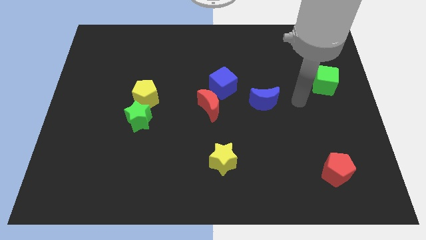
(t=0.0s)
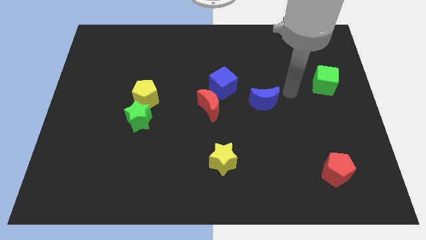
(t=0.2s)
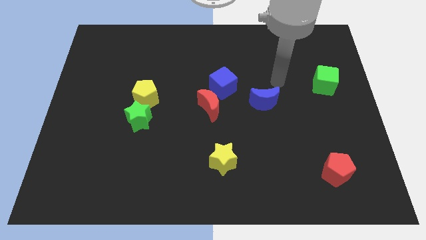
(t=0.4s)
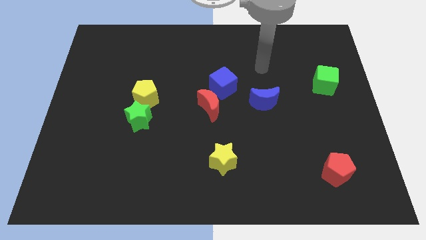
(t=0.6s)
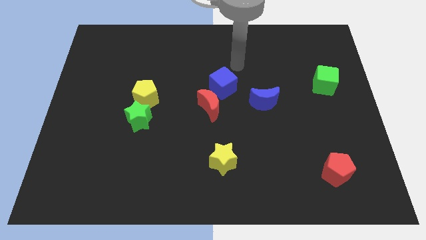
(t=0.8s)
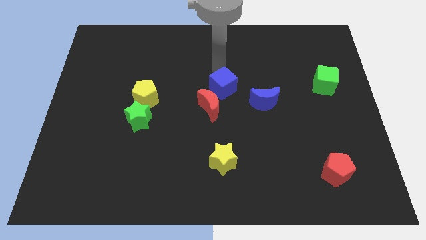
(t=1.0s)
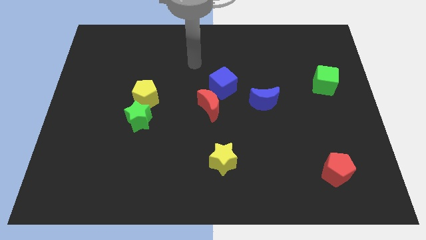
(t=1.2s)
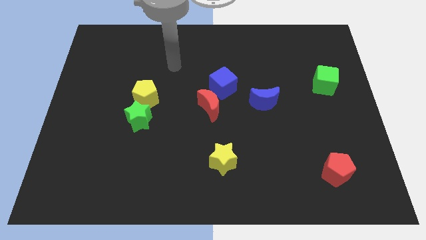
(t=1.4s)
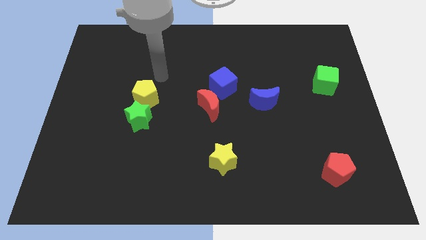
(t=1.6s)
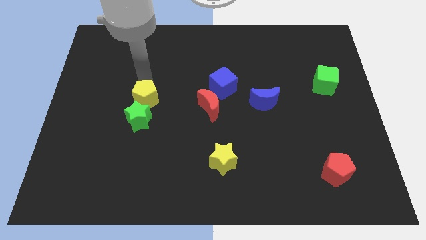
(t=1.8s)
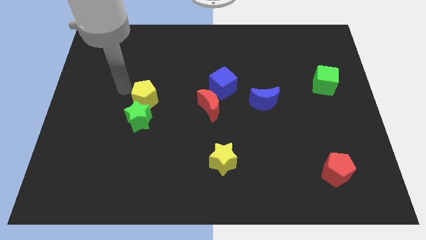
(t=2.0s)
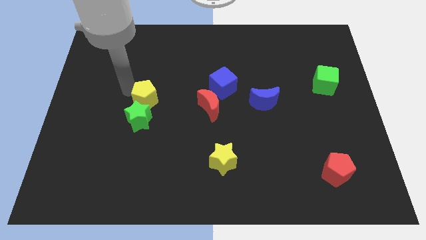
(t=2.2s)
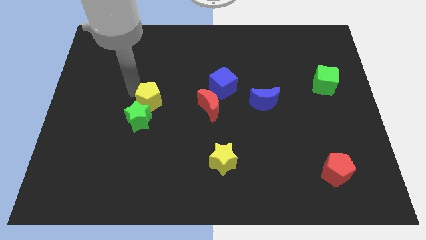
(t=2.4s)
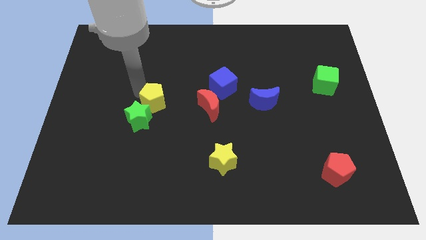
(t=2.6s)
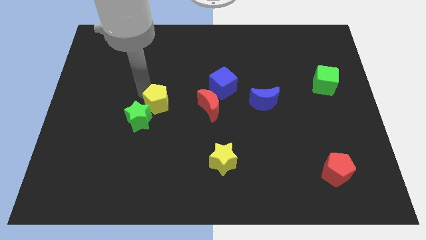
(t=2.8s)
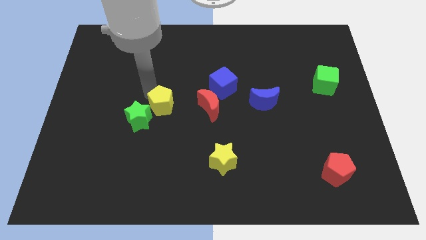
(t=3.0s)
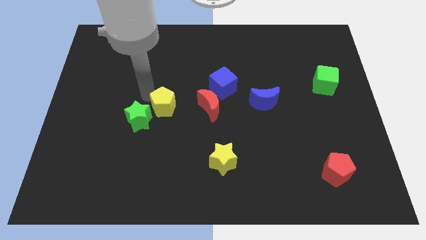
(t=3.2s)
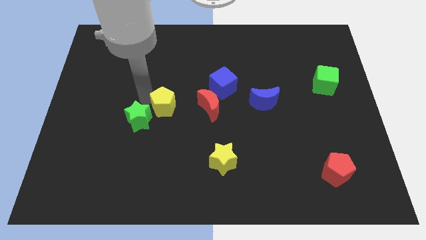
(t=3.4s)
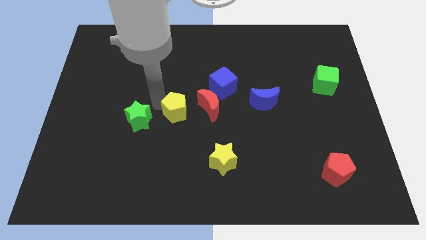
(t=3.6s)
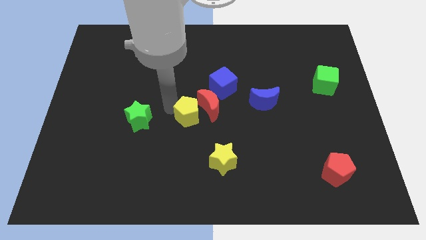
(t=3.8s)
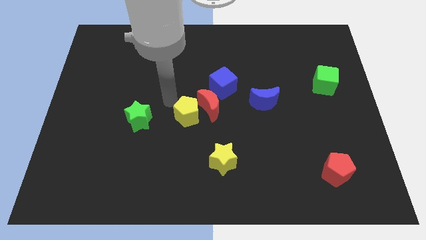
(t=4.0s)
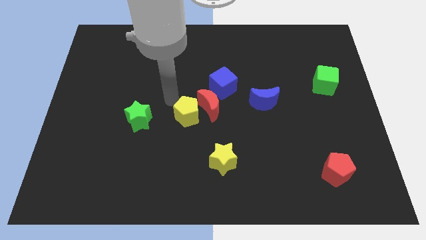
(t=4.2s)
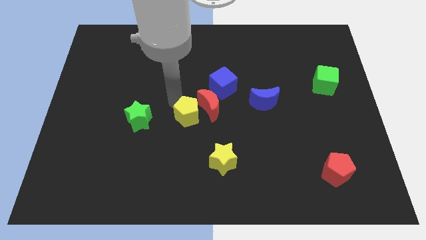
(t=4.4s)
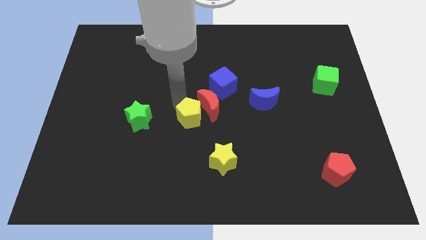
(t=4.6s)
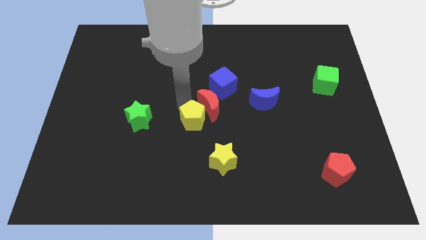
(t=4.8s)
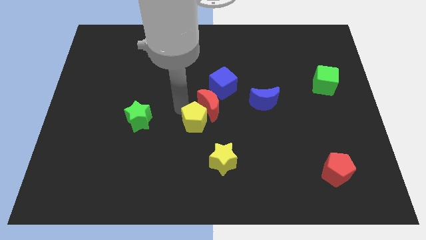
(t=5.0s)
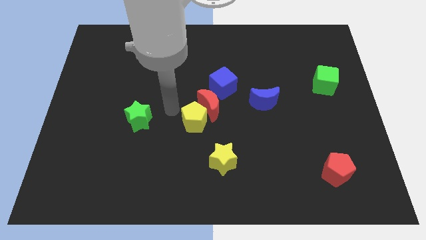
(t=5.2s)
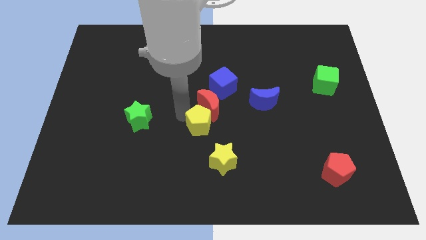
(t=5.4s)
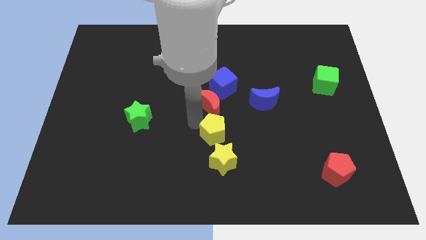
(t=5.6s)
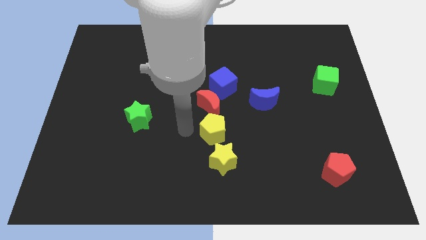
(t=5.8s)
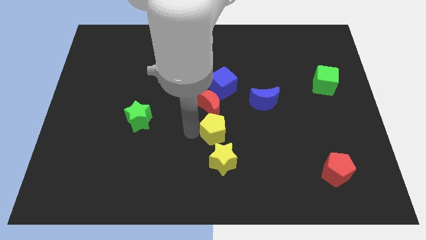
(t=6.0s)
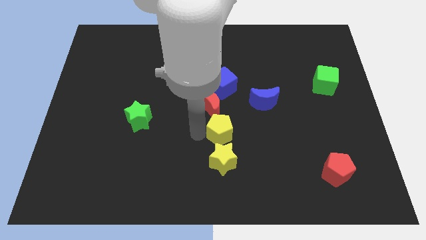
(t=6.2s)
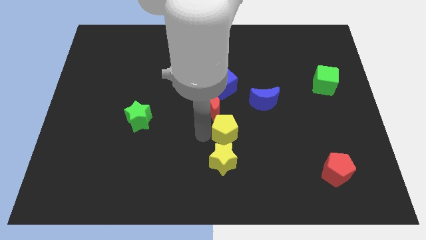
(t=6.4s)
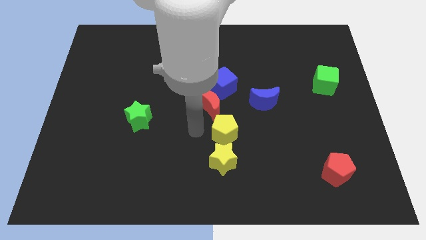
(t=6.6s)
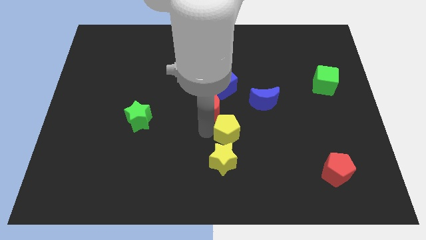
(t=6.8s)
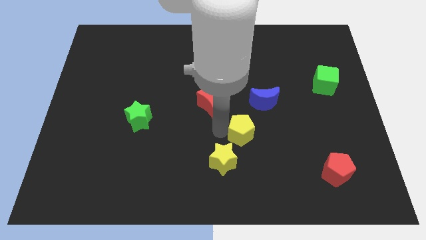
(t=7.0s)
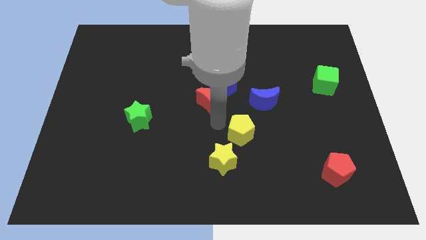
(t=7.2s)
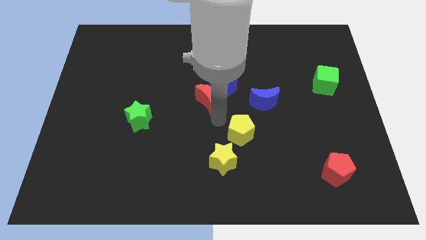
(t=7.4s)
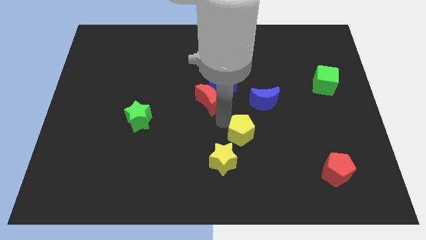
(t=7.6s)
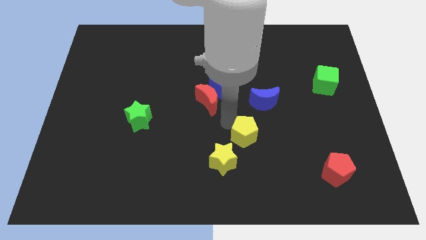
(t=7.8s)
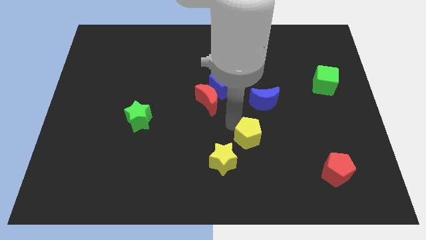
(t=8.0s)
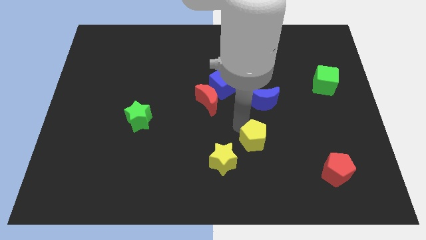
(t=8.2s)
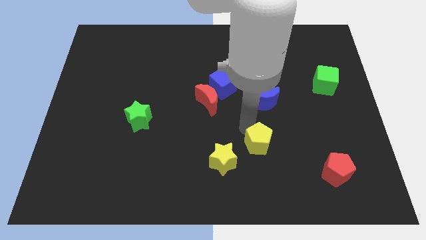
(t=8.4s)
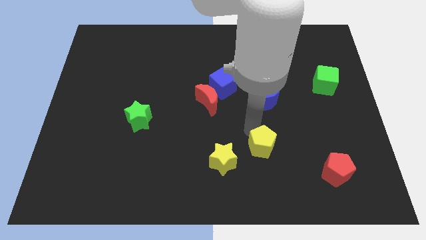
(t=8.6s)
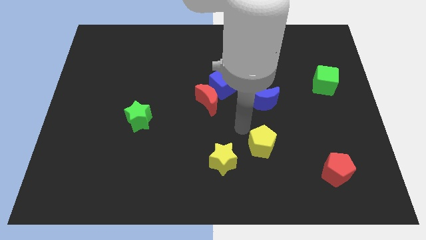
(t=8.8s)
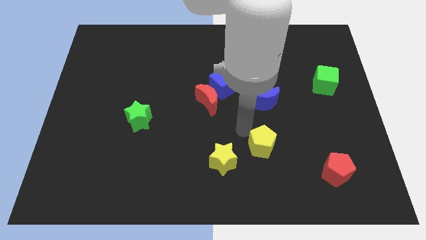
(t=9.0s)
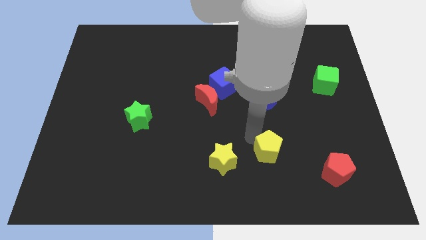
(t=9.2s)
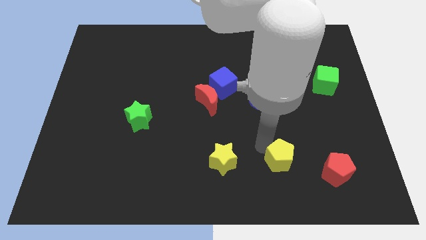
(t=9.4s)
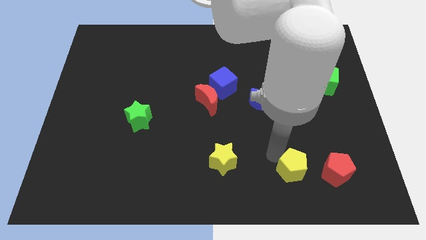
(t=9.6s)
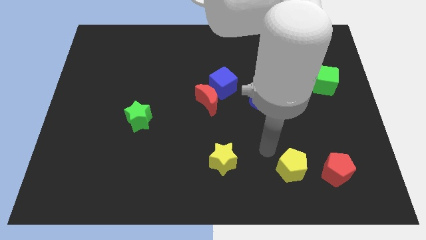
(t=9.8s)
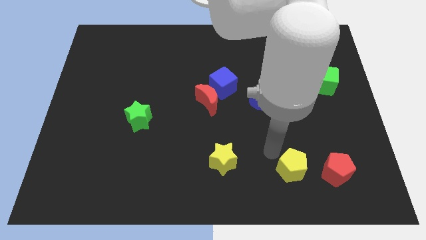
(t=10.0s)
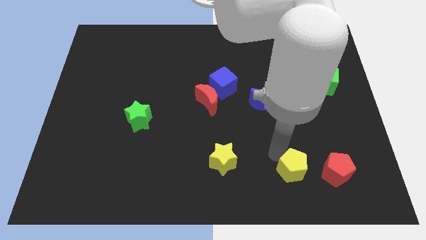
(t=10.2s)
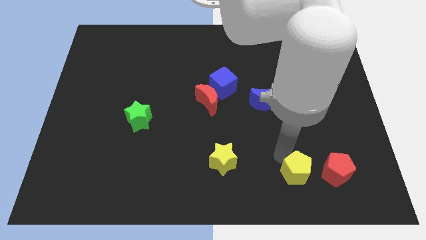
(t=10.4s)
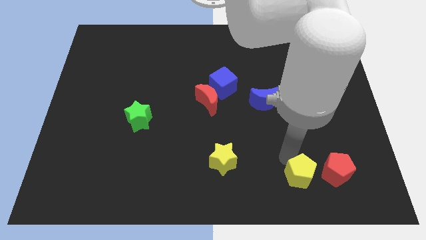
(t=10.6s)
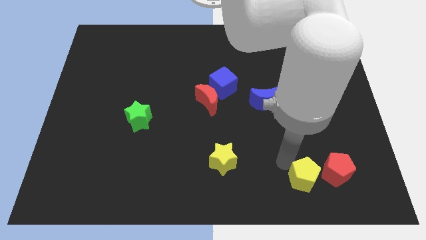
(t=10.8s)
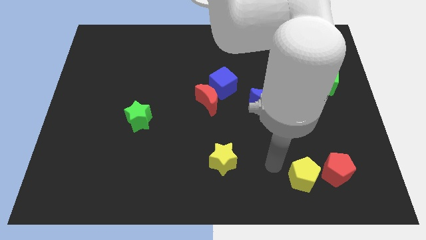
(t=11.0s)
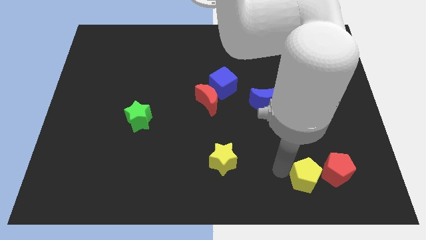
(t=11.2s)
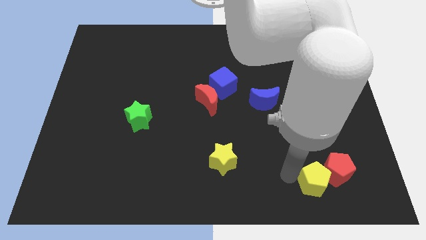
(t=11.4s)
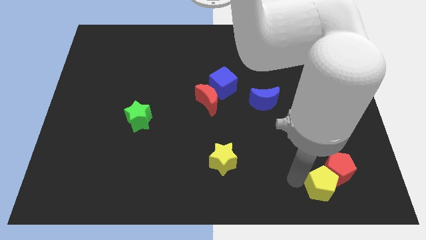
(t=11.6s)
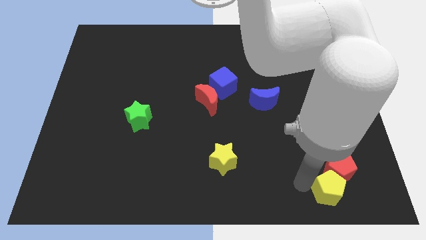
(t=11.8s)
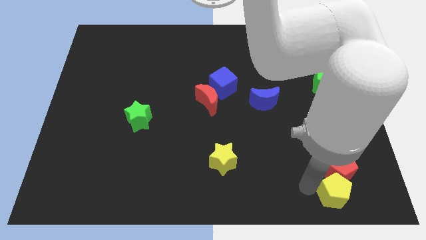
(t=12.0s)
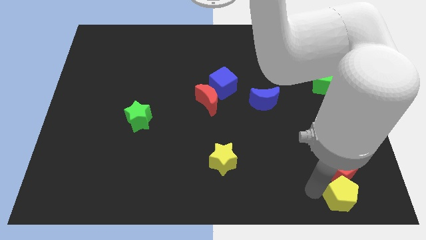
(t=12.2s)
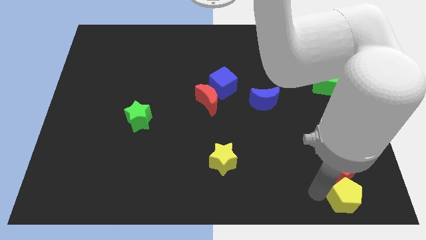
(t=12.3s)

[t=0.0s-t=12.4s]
put the yellow pentagon to the bottom right corner

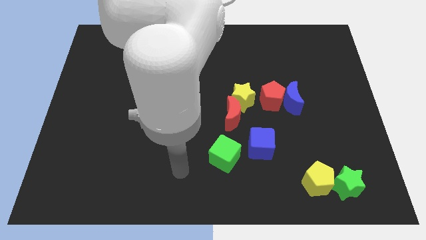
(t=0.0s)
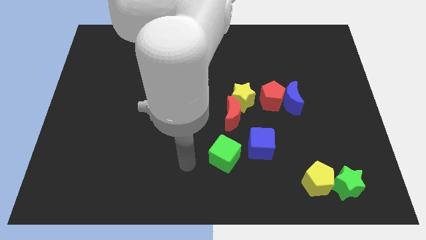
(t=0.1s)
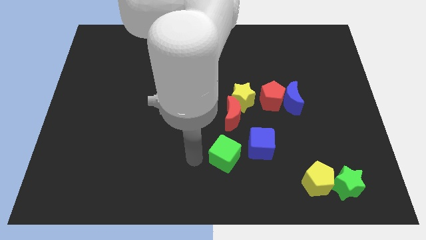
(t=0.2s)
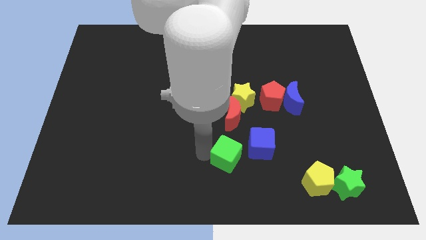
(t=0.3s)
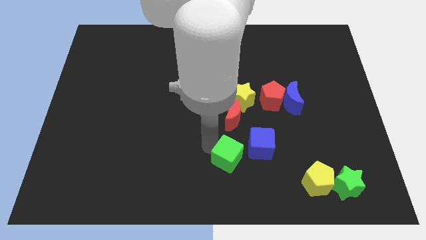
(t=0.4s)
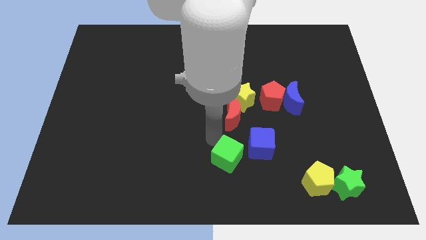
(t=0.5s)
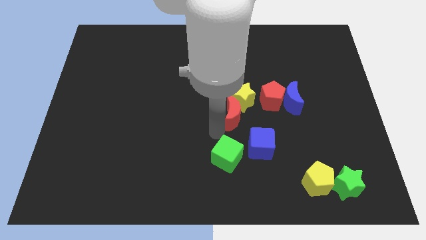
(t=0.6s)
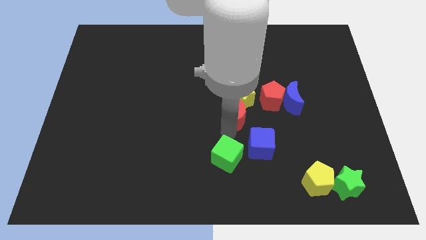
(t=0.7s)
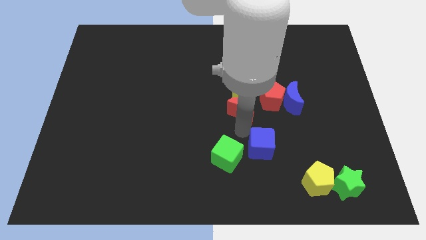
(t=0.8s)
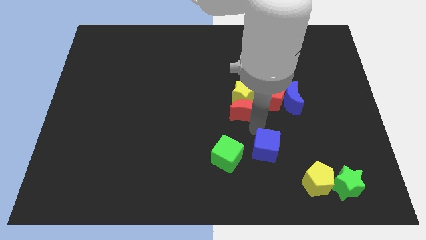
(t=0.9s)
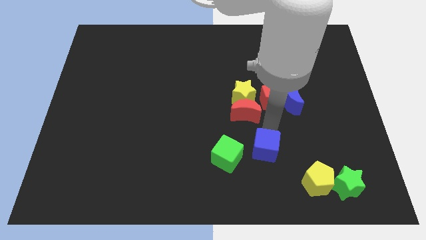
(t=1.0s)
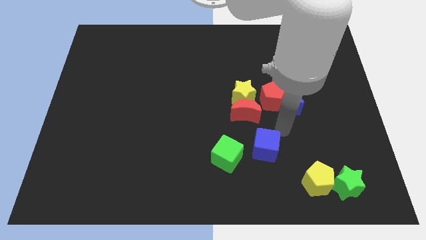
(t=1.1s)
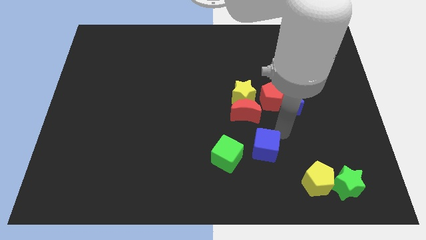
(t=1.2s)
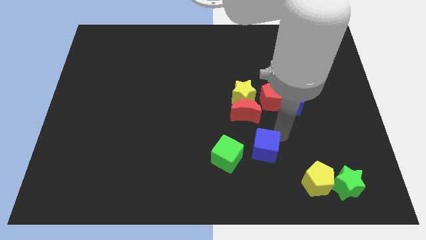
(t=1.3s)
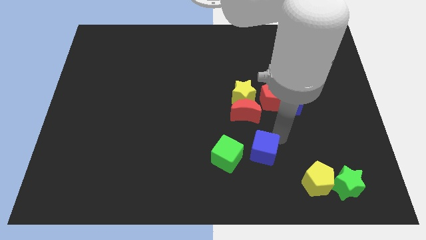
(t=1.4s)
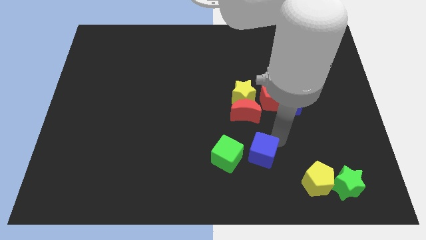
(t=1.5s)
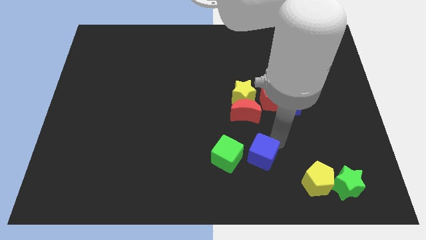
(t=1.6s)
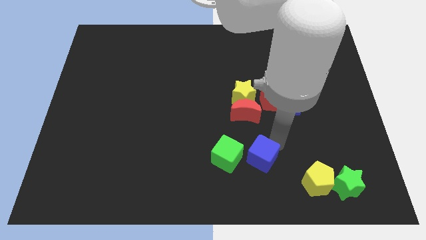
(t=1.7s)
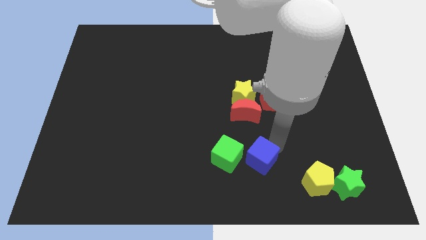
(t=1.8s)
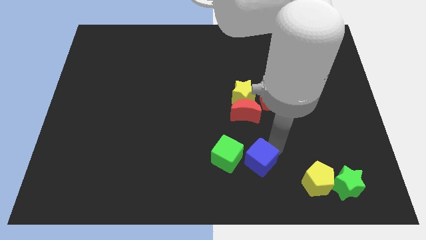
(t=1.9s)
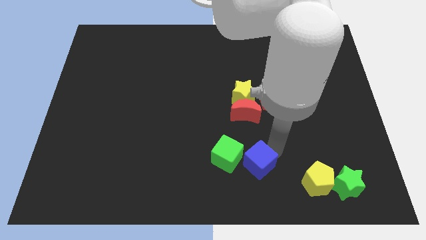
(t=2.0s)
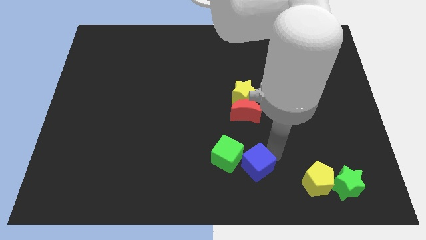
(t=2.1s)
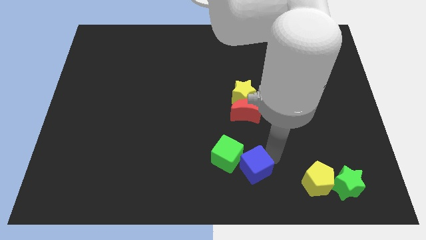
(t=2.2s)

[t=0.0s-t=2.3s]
put the blue cube to the bottom side
